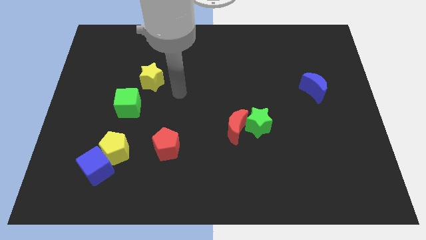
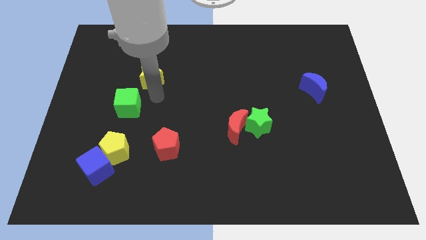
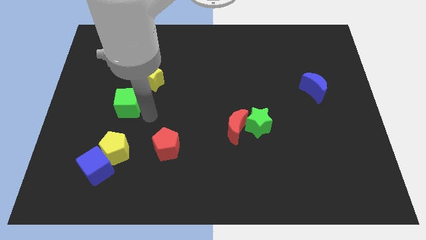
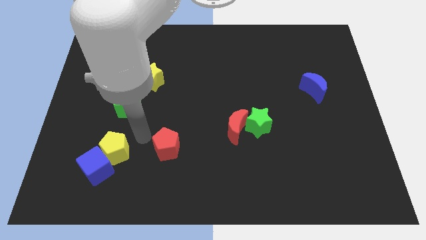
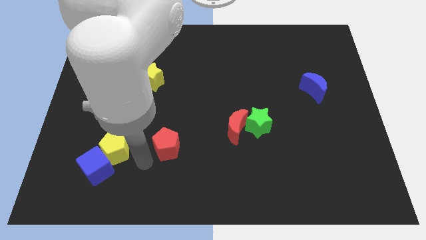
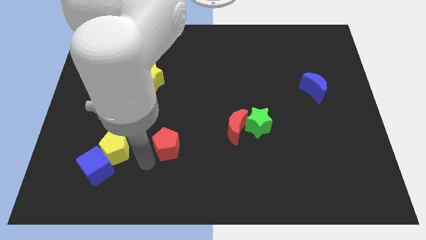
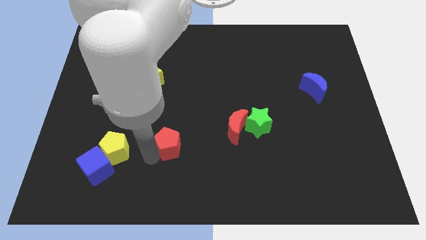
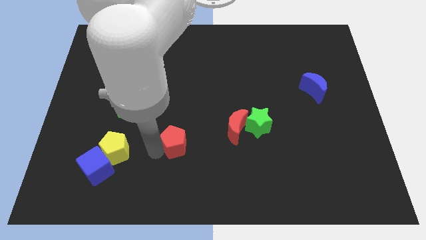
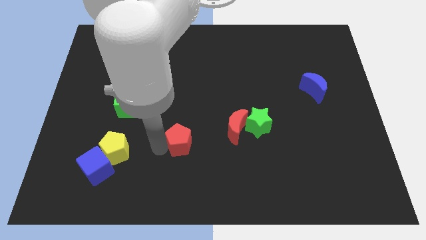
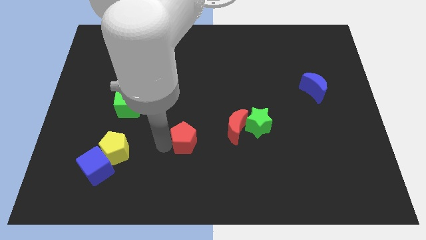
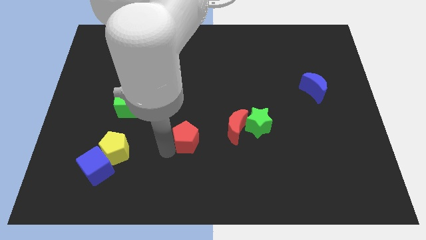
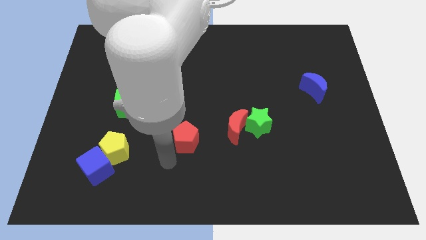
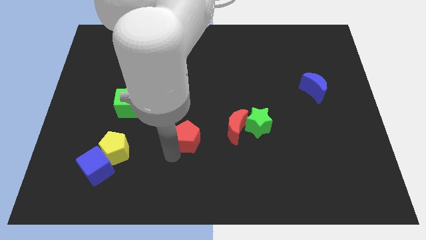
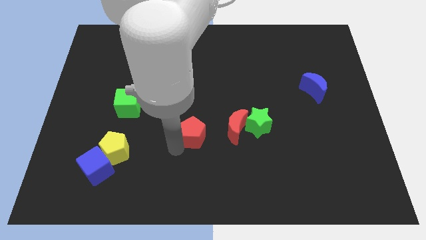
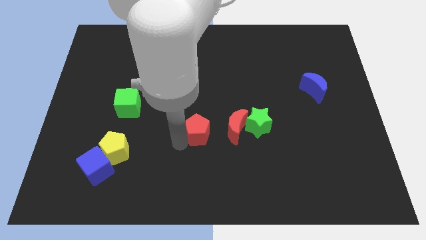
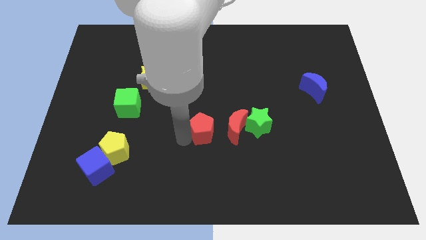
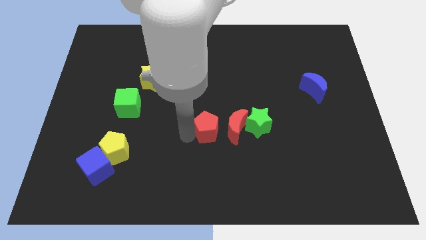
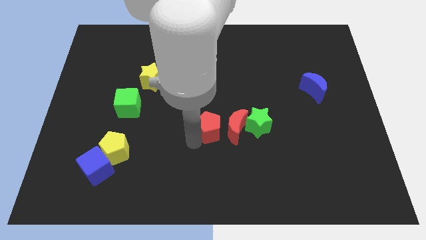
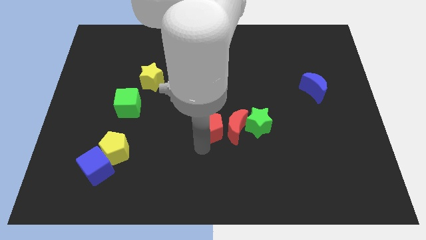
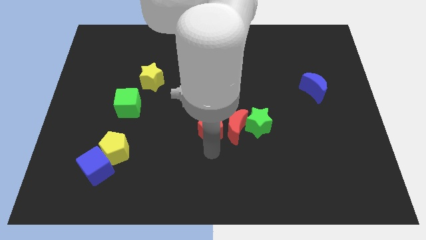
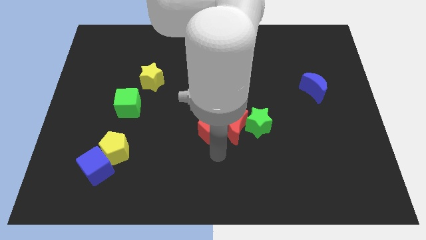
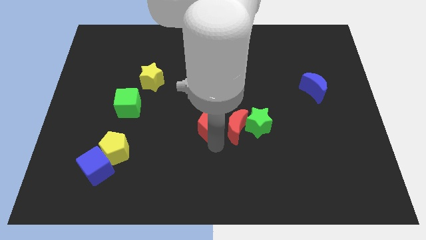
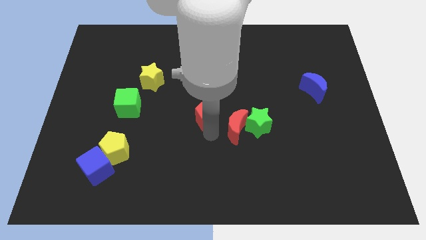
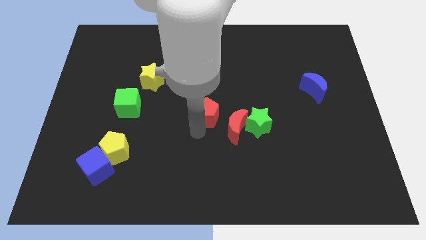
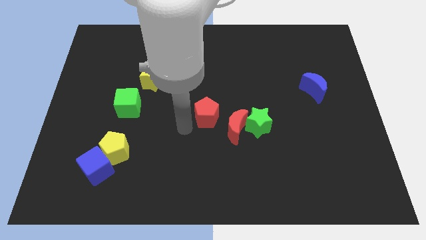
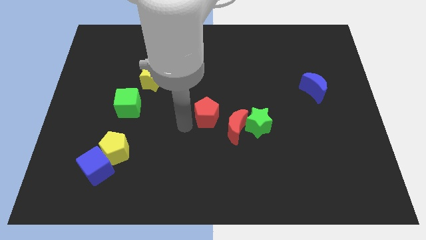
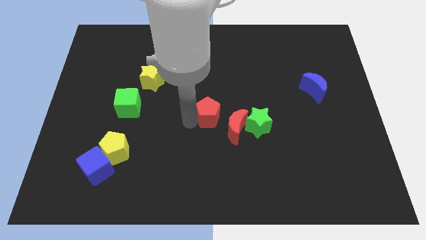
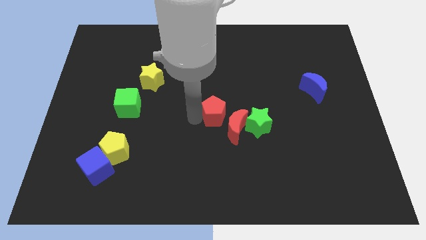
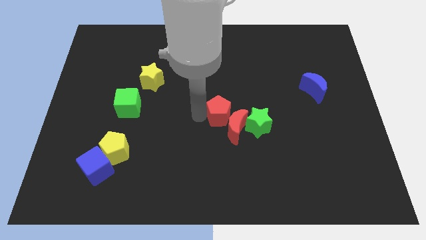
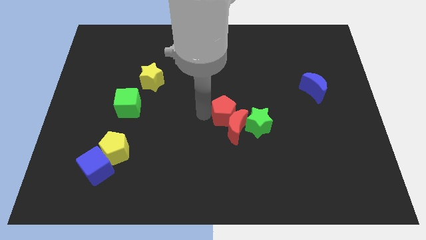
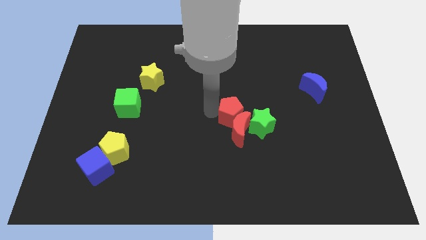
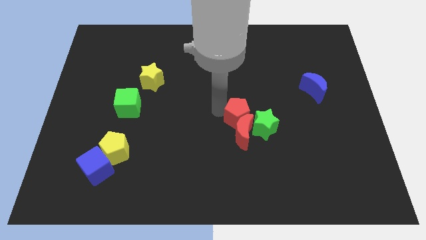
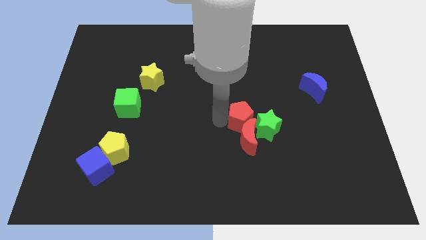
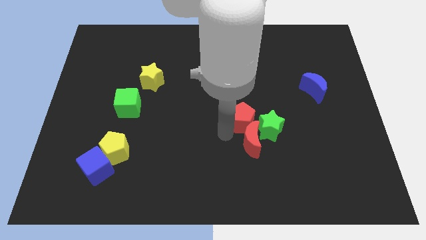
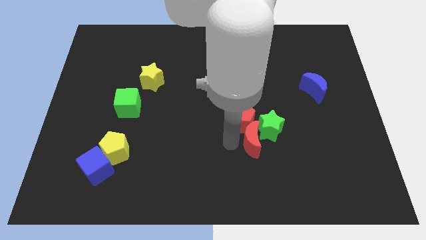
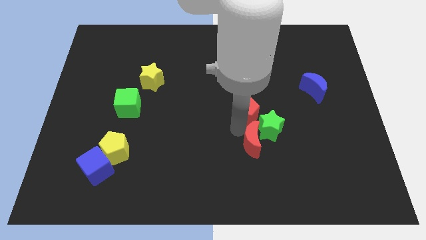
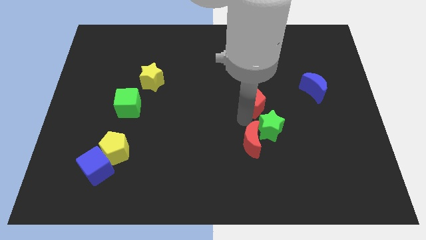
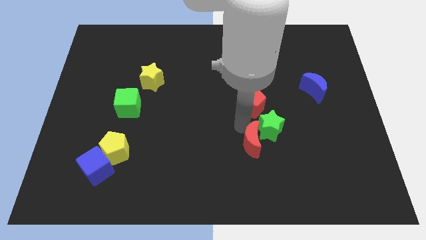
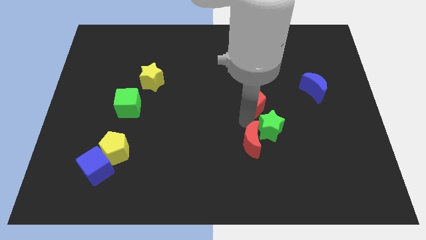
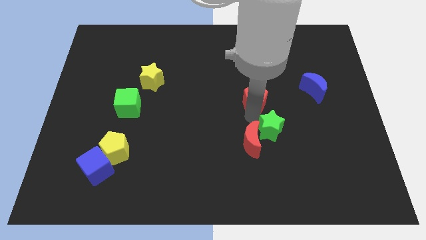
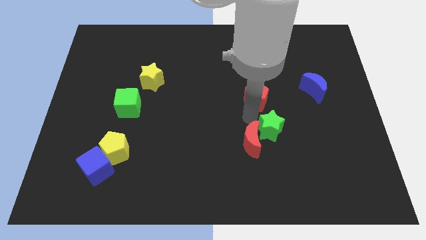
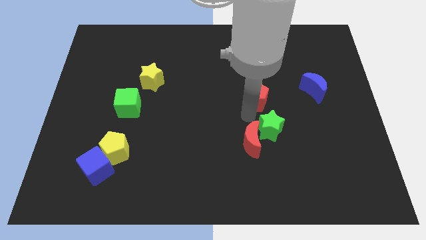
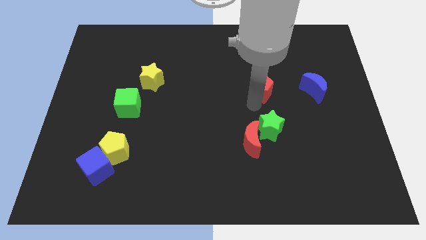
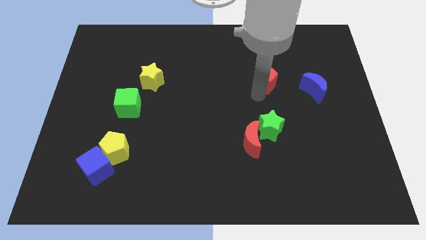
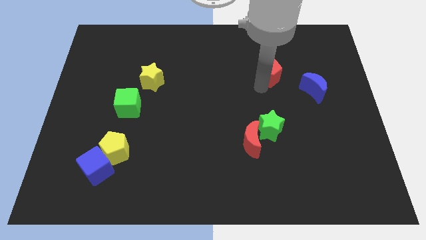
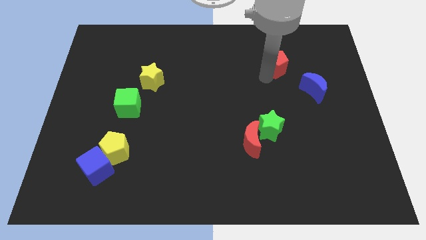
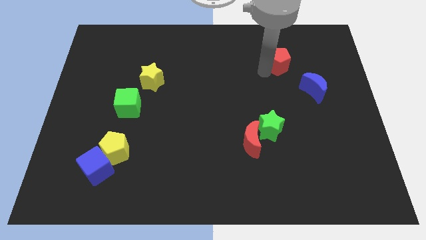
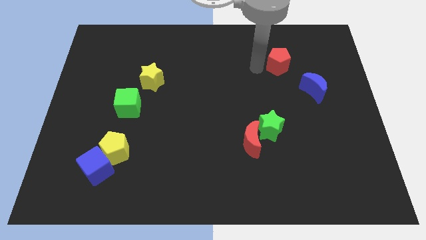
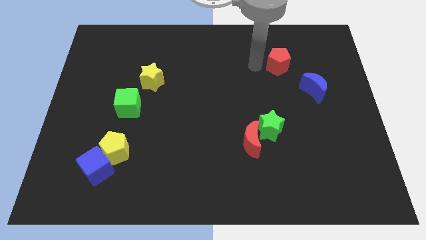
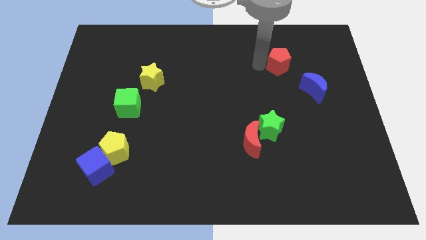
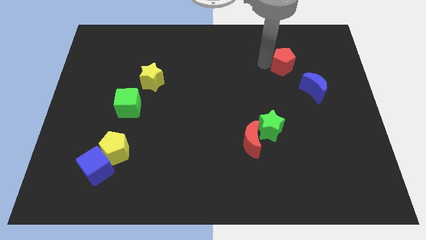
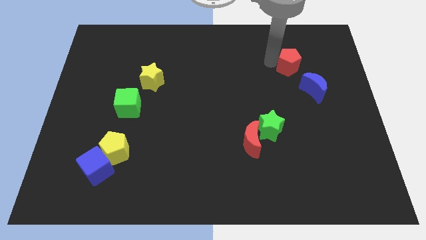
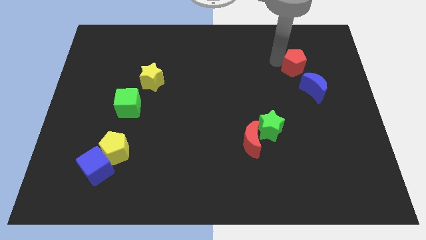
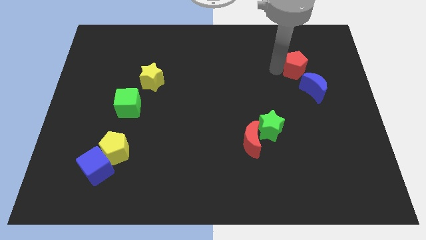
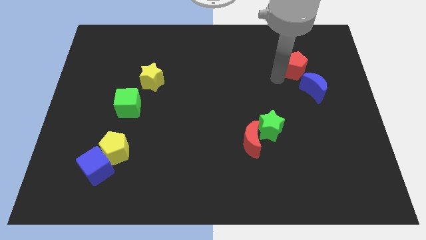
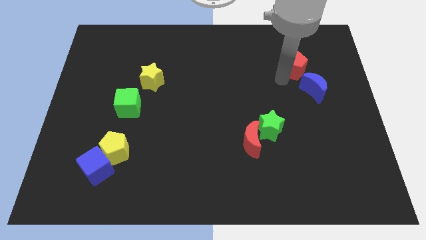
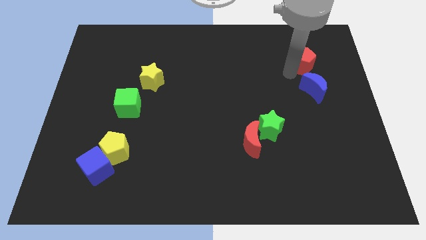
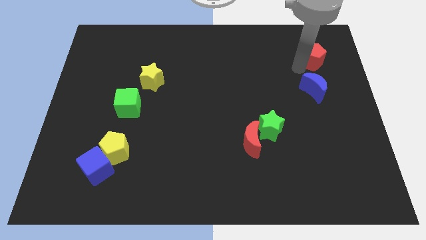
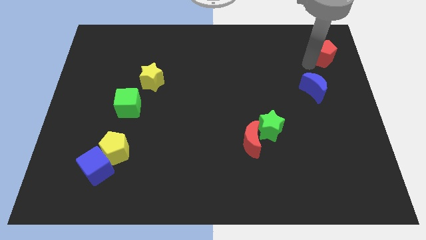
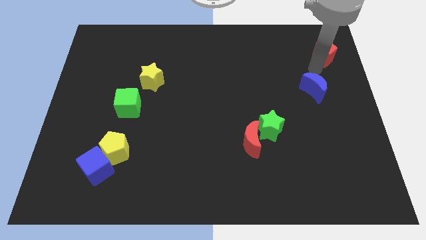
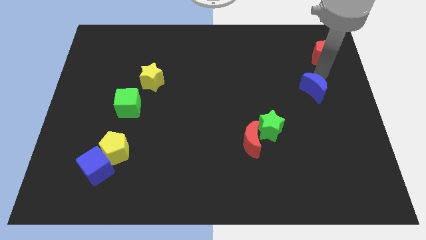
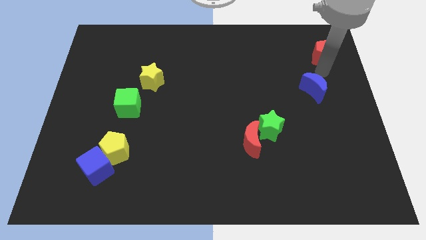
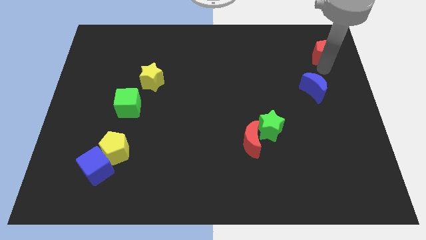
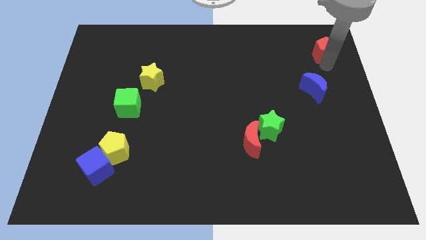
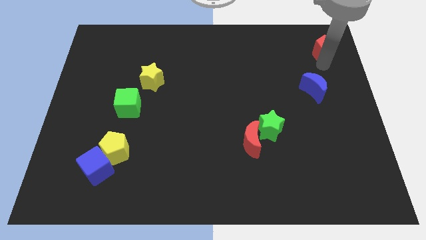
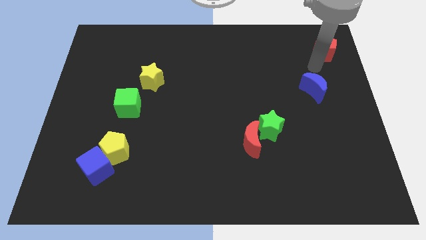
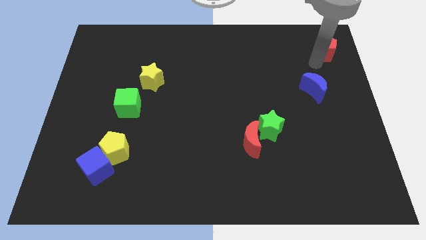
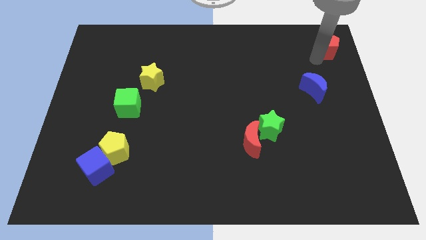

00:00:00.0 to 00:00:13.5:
put the red pentagon to the top right corner
